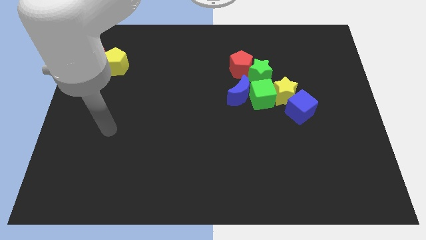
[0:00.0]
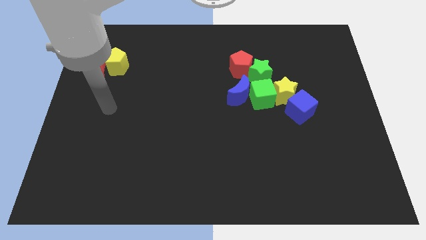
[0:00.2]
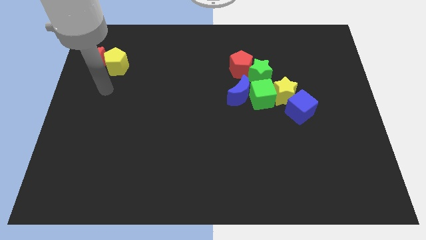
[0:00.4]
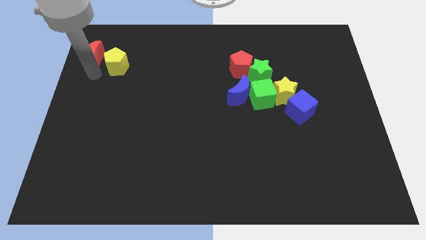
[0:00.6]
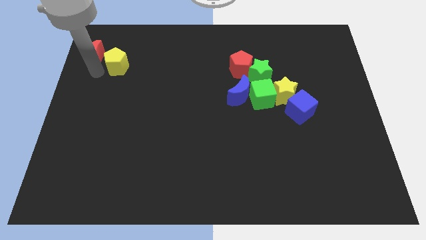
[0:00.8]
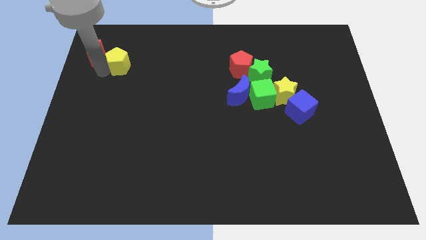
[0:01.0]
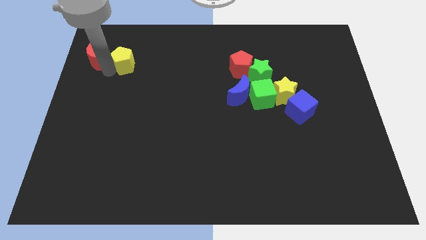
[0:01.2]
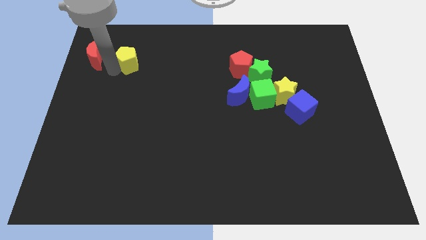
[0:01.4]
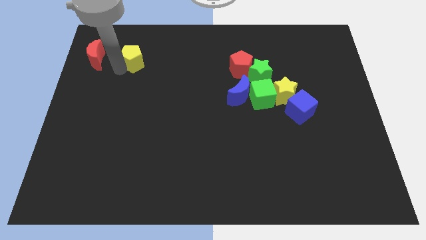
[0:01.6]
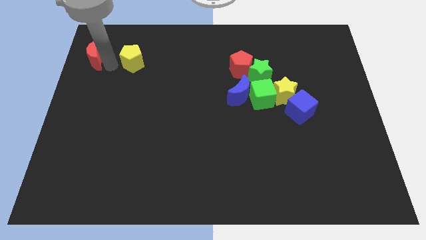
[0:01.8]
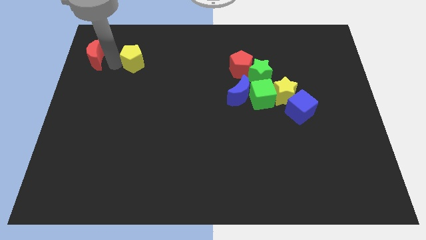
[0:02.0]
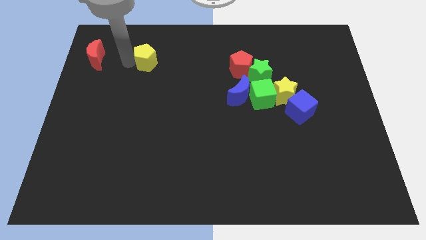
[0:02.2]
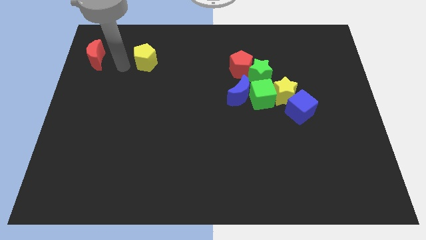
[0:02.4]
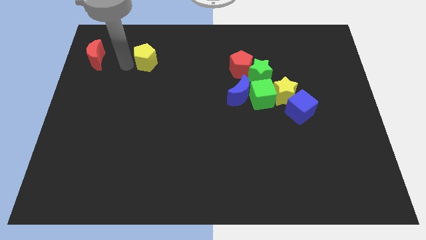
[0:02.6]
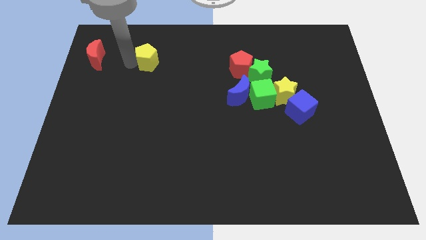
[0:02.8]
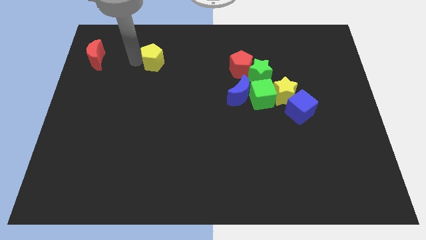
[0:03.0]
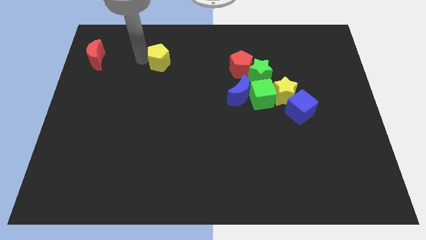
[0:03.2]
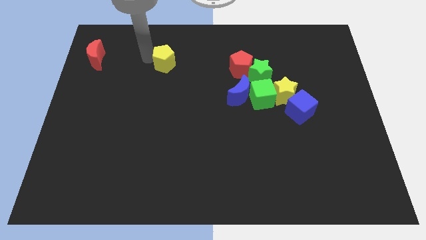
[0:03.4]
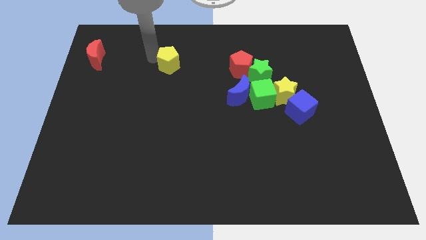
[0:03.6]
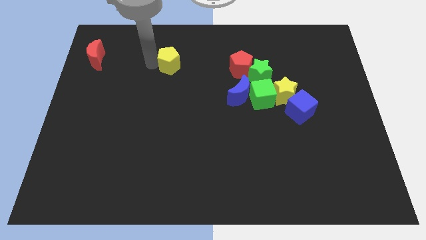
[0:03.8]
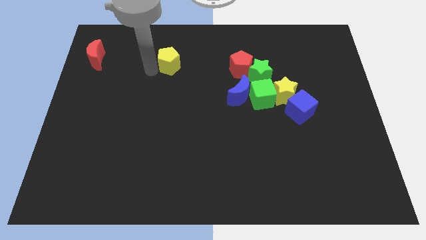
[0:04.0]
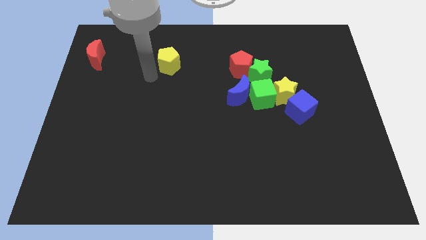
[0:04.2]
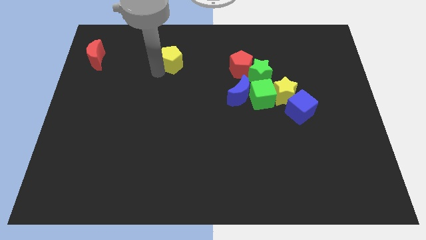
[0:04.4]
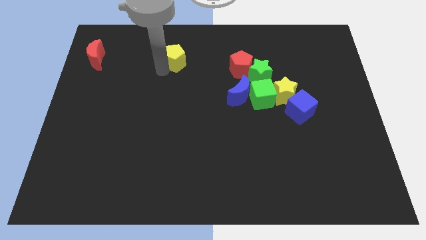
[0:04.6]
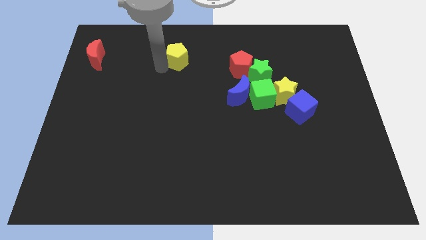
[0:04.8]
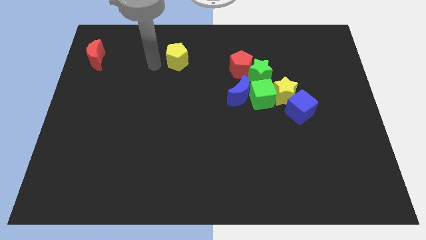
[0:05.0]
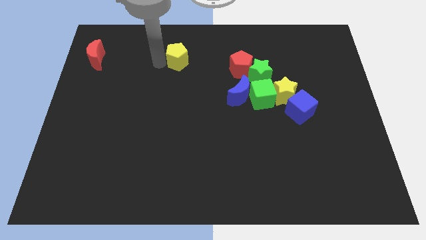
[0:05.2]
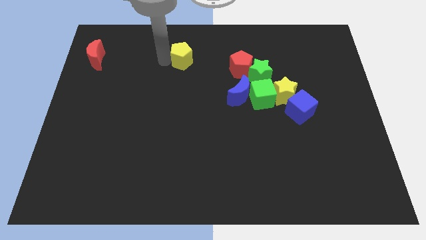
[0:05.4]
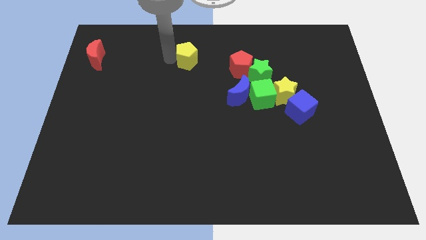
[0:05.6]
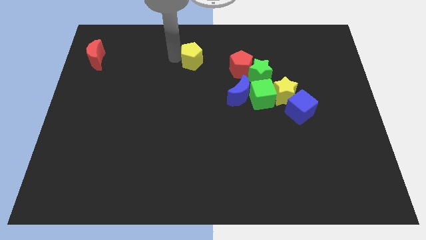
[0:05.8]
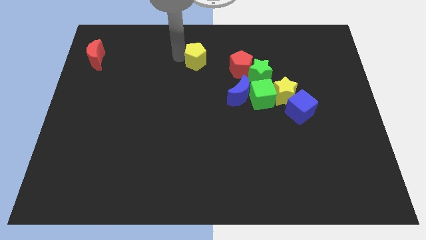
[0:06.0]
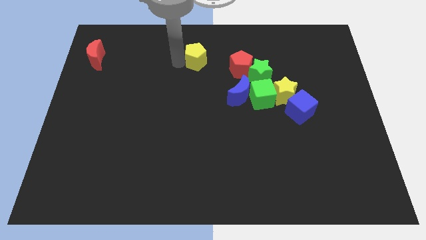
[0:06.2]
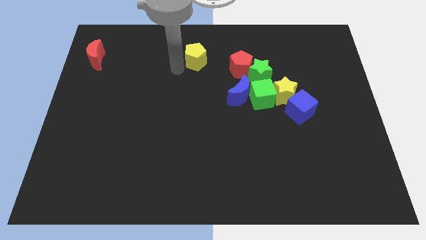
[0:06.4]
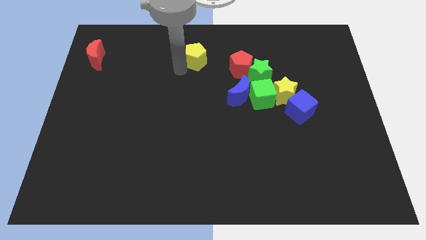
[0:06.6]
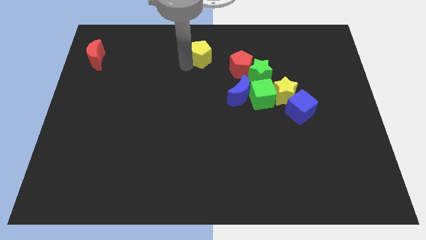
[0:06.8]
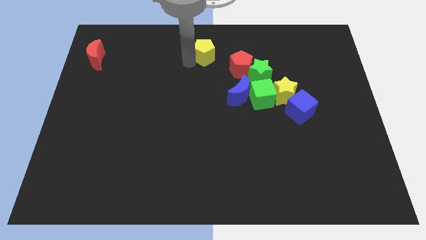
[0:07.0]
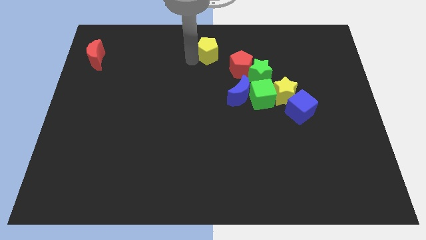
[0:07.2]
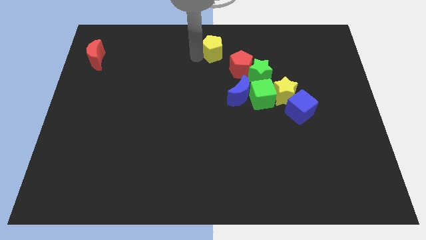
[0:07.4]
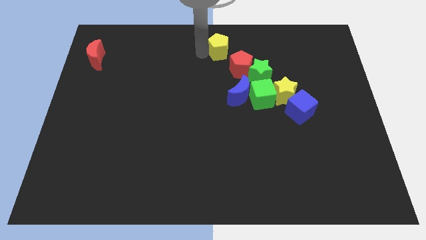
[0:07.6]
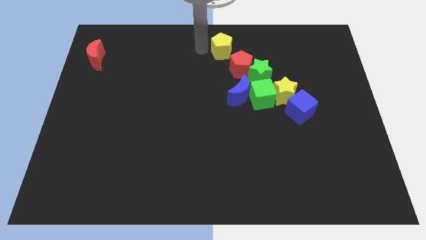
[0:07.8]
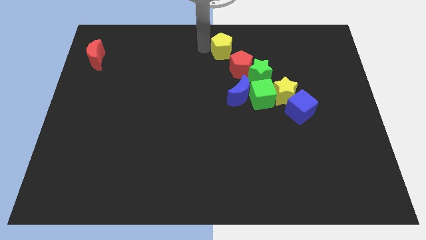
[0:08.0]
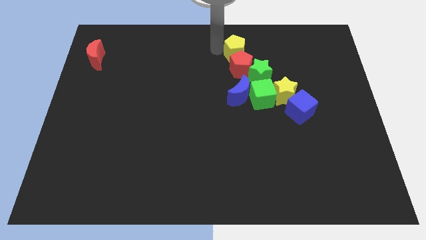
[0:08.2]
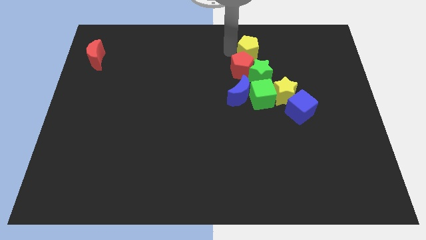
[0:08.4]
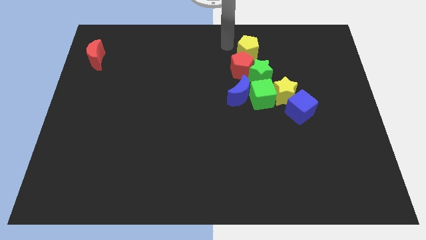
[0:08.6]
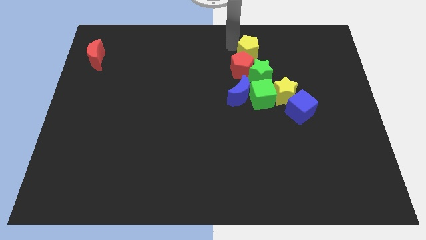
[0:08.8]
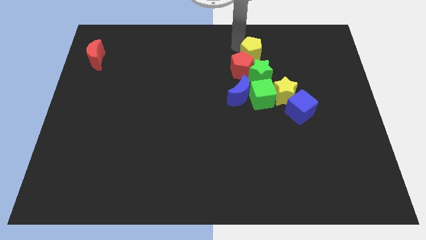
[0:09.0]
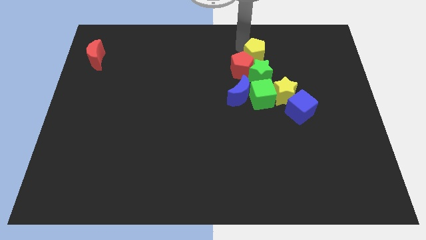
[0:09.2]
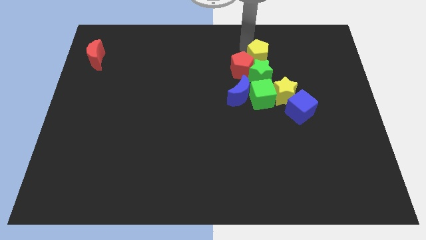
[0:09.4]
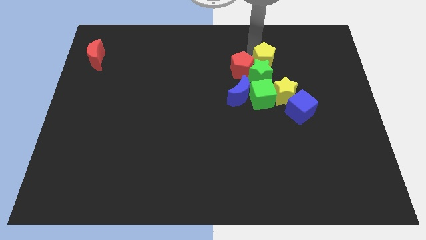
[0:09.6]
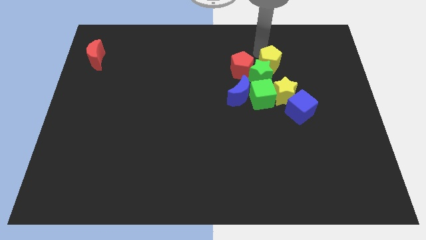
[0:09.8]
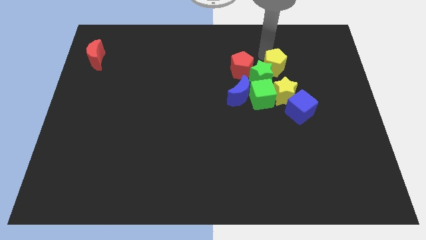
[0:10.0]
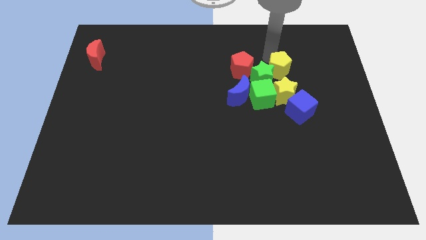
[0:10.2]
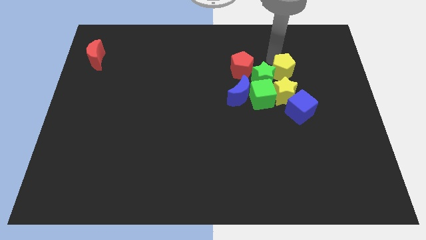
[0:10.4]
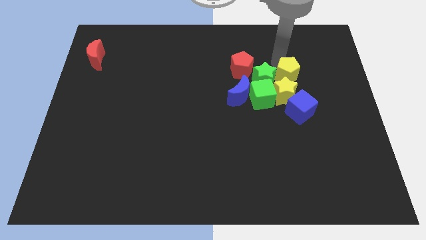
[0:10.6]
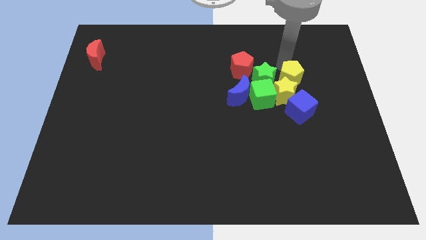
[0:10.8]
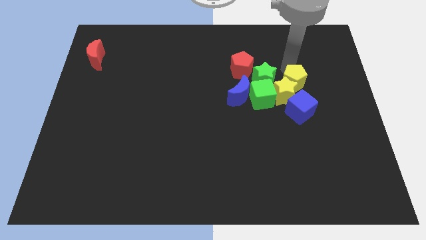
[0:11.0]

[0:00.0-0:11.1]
slide the yellow pentagon to the right side of the green cube

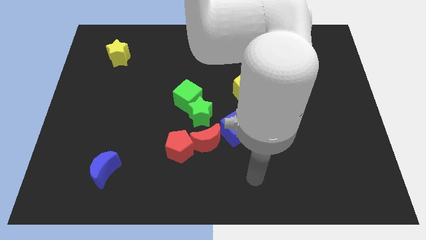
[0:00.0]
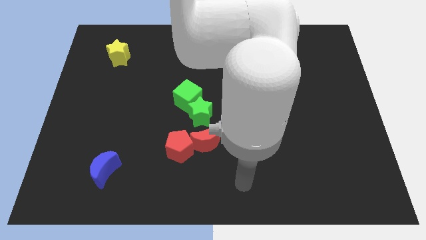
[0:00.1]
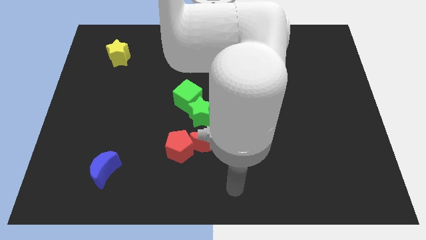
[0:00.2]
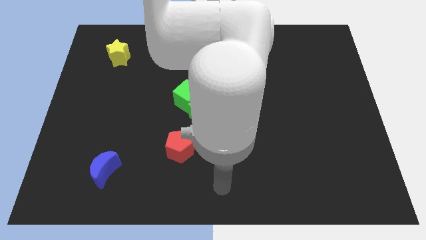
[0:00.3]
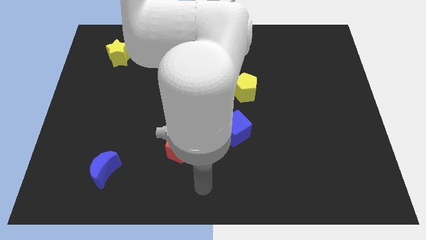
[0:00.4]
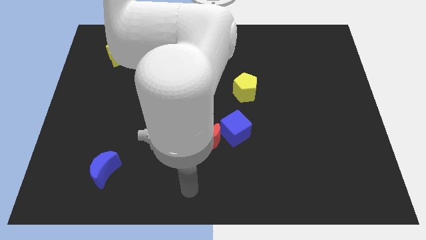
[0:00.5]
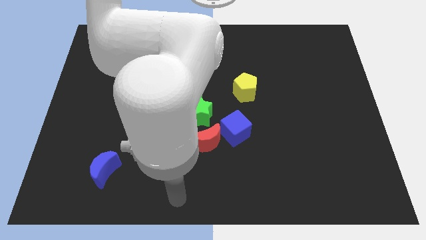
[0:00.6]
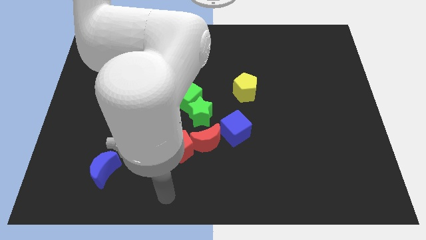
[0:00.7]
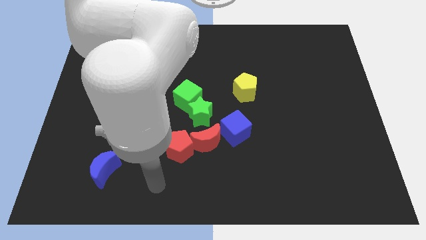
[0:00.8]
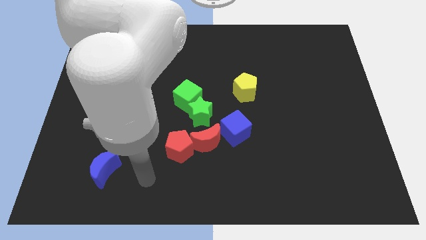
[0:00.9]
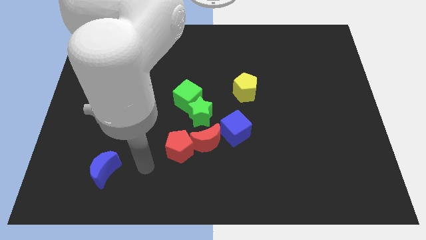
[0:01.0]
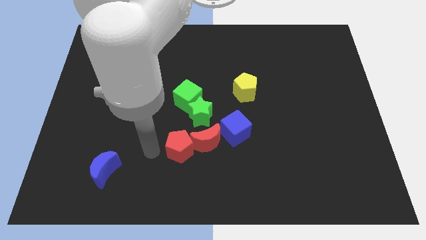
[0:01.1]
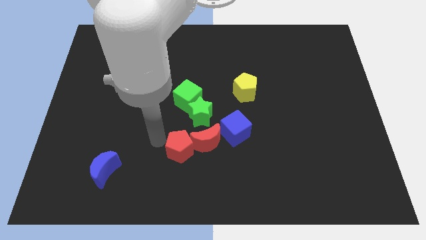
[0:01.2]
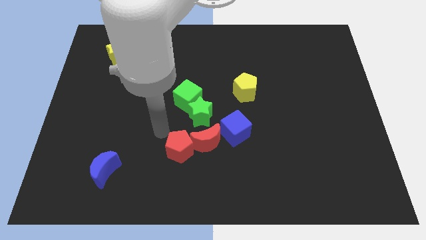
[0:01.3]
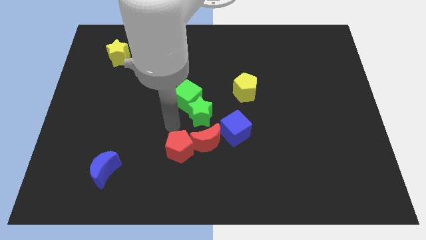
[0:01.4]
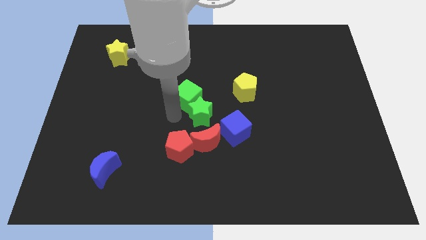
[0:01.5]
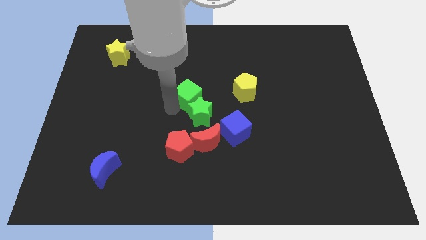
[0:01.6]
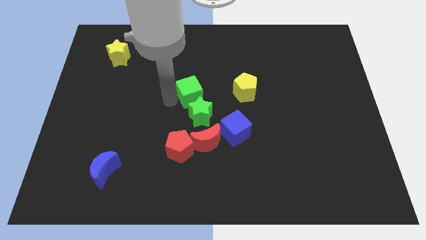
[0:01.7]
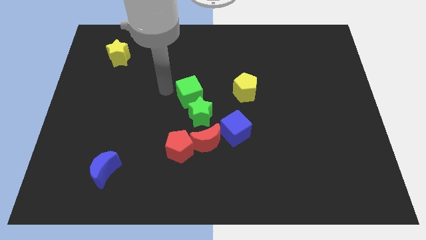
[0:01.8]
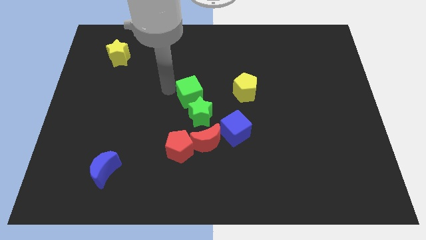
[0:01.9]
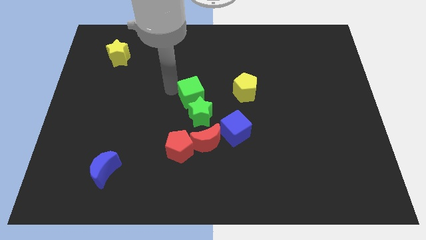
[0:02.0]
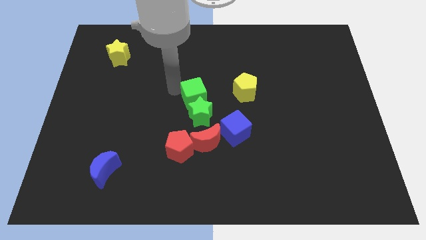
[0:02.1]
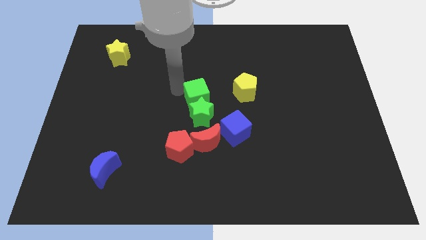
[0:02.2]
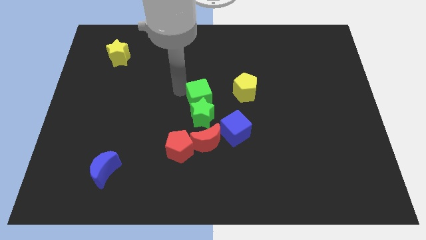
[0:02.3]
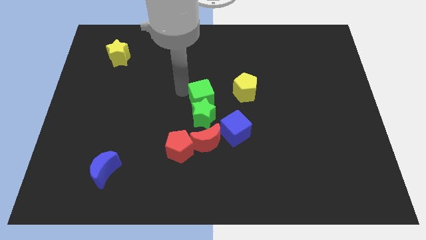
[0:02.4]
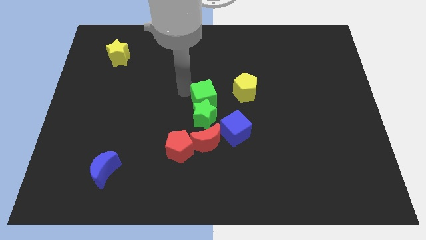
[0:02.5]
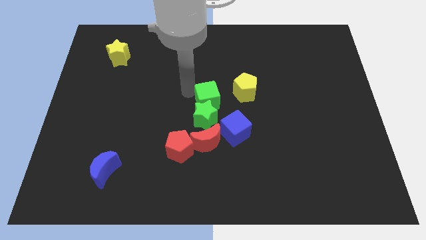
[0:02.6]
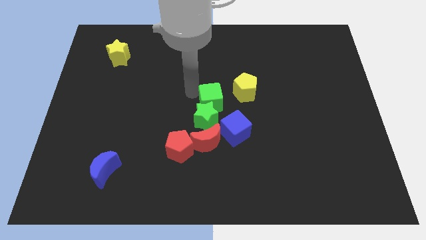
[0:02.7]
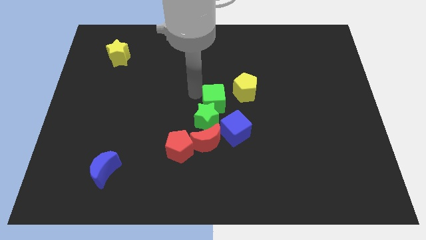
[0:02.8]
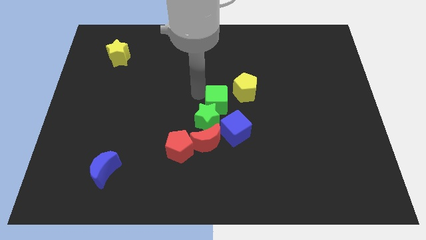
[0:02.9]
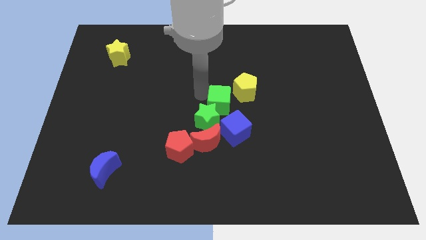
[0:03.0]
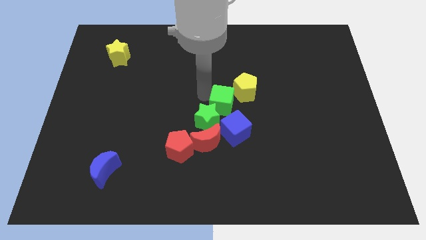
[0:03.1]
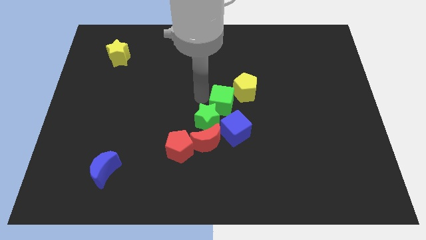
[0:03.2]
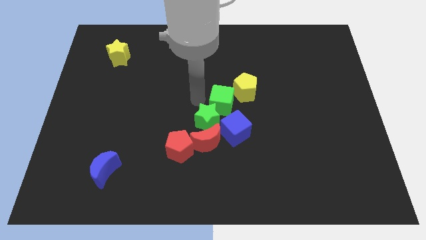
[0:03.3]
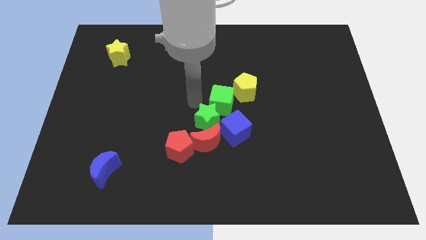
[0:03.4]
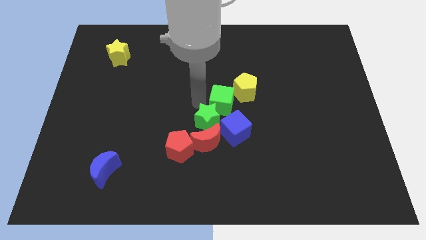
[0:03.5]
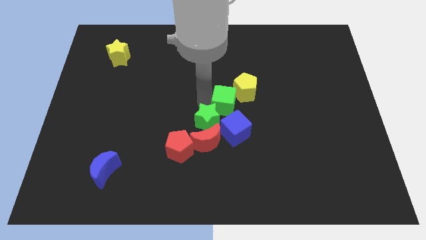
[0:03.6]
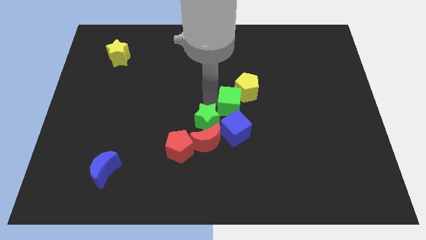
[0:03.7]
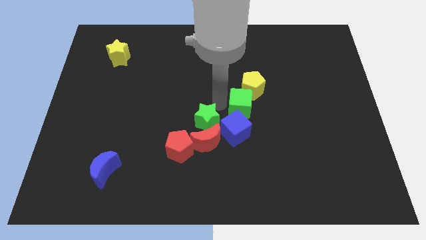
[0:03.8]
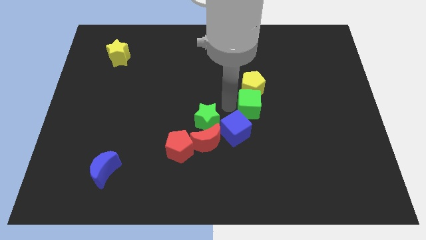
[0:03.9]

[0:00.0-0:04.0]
push the green cube diagonally down and to the right of the yellow pentagon
